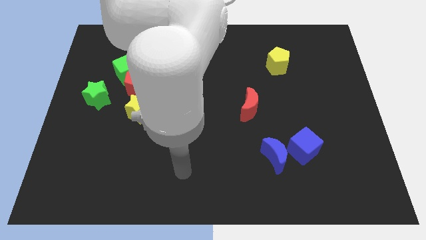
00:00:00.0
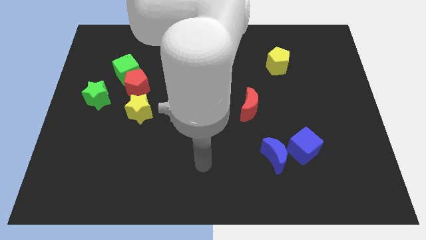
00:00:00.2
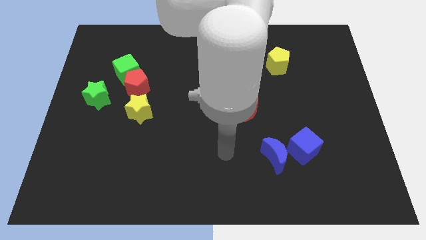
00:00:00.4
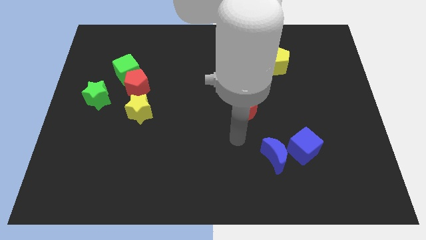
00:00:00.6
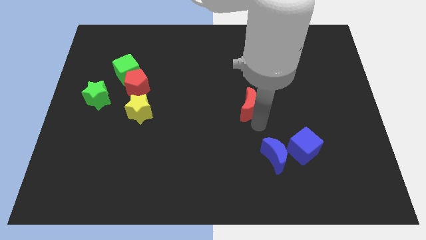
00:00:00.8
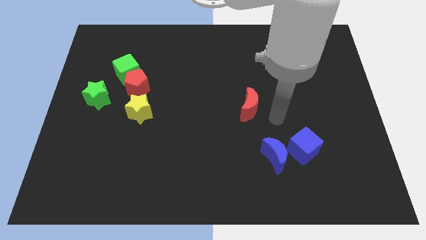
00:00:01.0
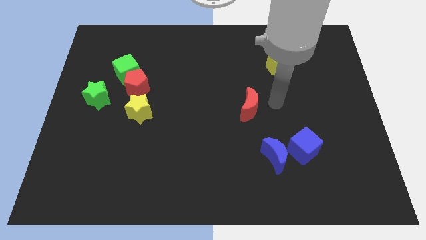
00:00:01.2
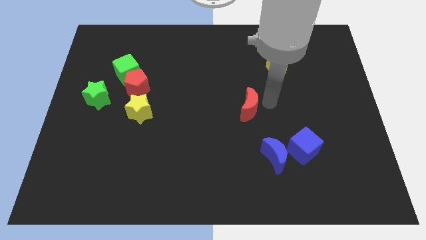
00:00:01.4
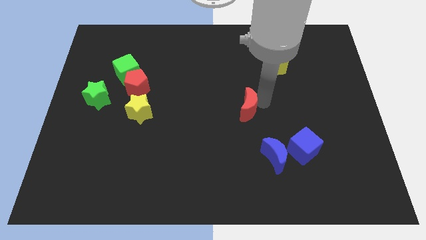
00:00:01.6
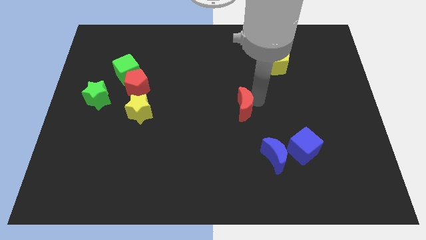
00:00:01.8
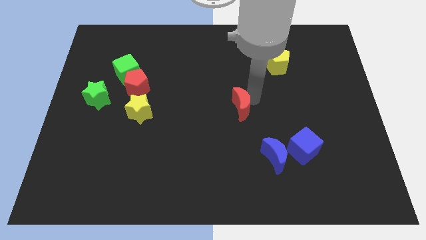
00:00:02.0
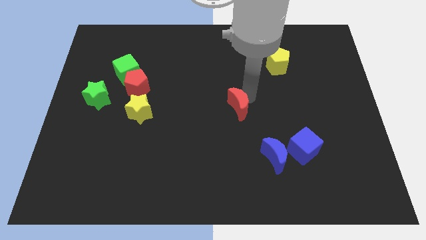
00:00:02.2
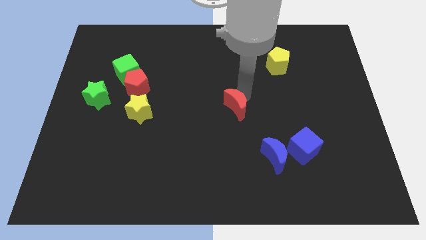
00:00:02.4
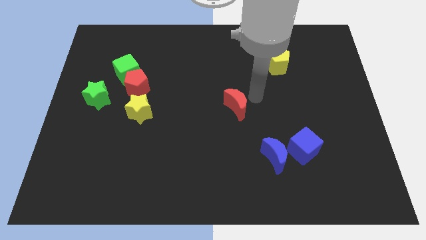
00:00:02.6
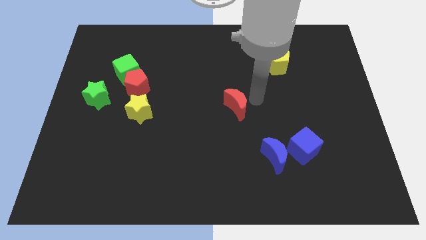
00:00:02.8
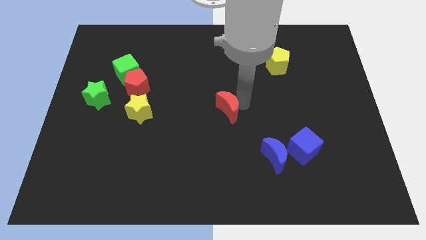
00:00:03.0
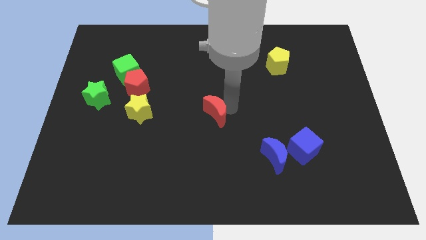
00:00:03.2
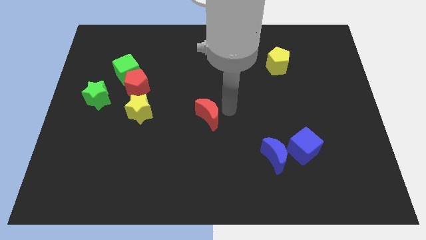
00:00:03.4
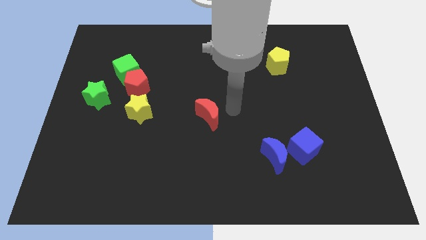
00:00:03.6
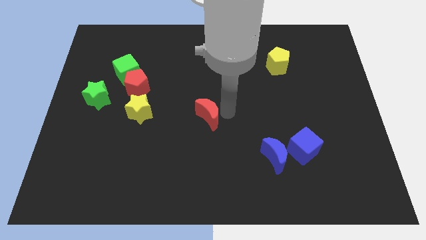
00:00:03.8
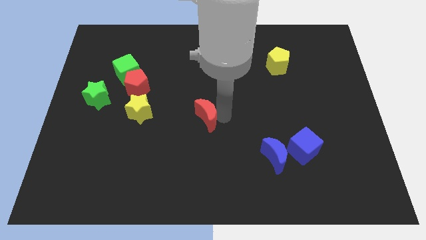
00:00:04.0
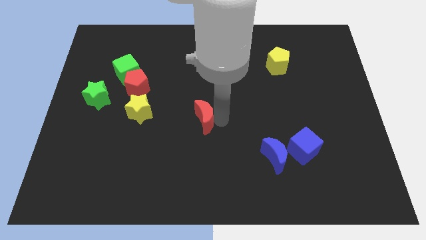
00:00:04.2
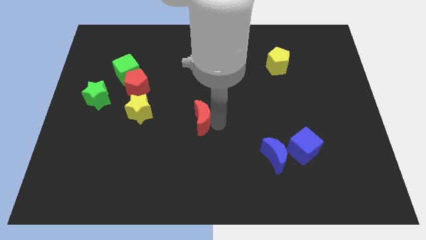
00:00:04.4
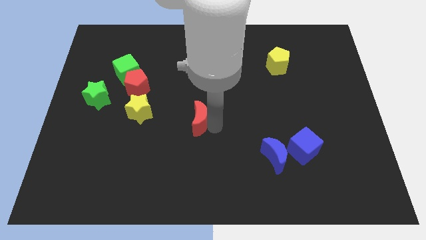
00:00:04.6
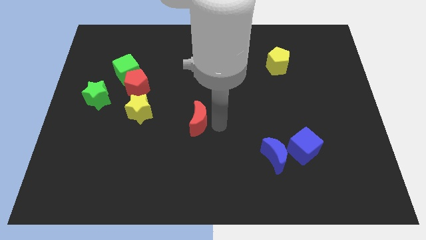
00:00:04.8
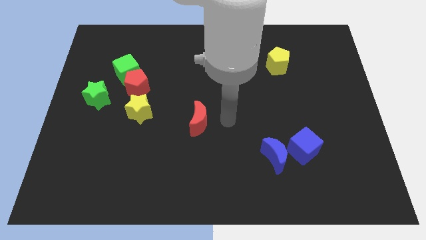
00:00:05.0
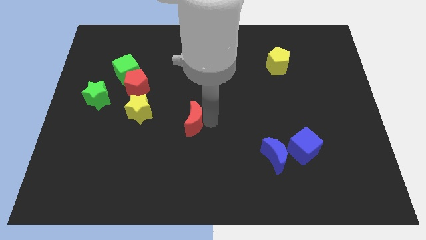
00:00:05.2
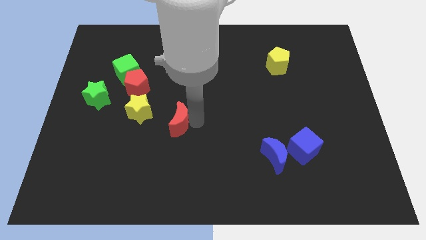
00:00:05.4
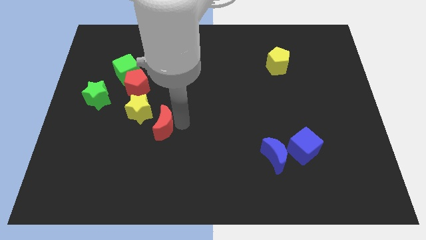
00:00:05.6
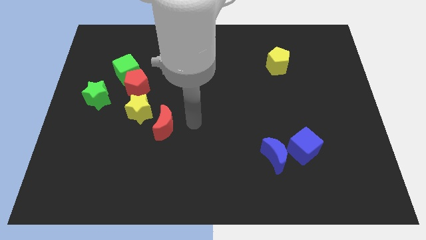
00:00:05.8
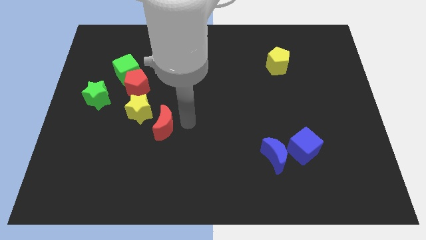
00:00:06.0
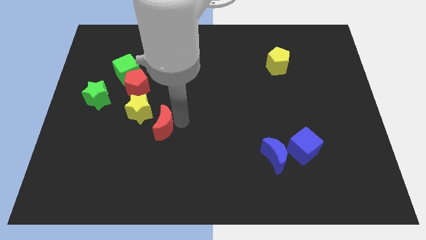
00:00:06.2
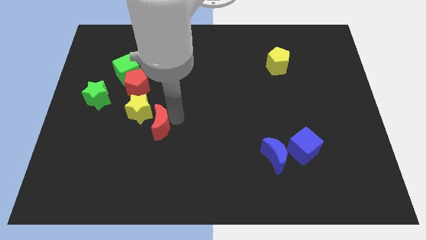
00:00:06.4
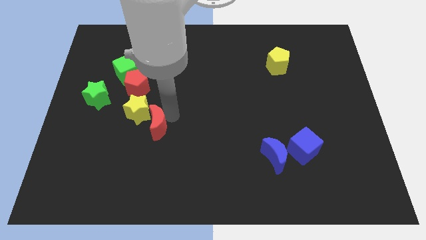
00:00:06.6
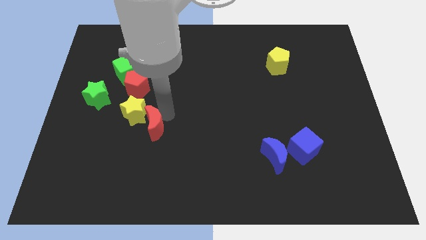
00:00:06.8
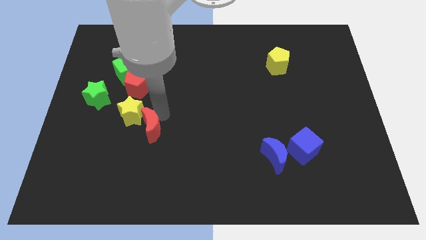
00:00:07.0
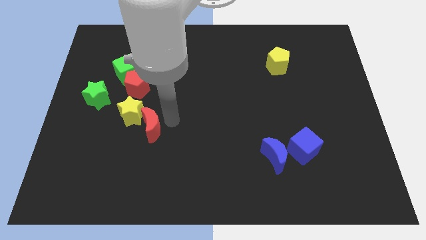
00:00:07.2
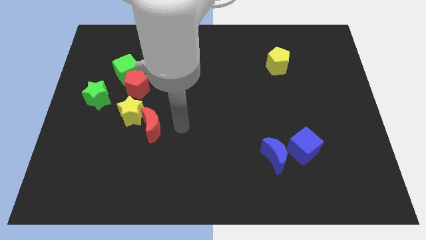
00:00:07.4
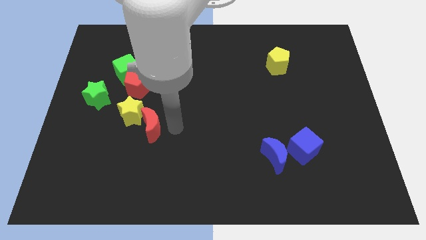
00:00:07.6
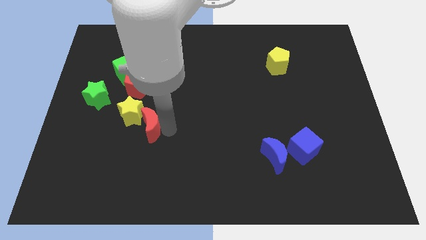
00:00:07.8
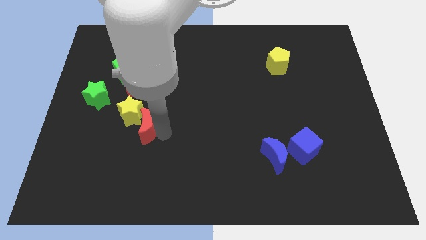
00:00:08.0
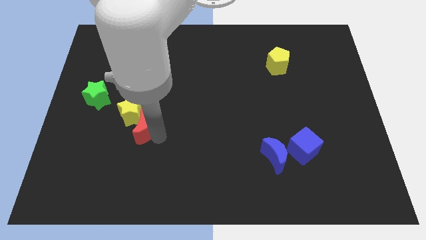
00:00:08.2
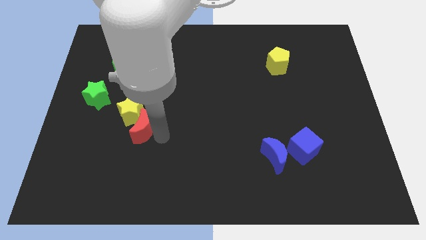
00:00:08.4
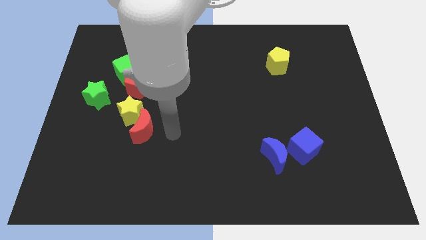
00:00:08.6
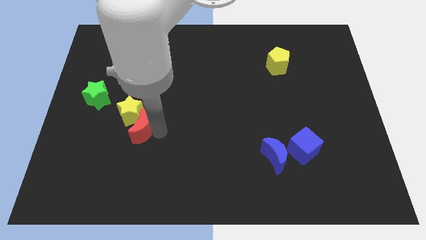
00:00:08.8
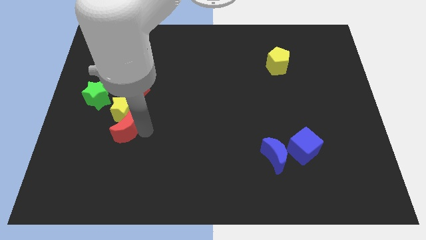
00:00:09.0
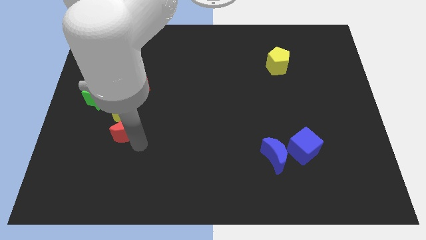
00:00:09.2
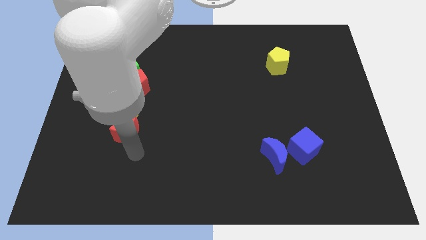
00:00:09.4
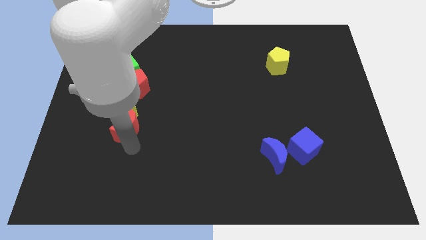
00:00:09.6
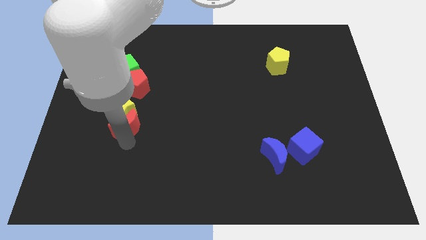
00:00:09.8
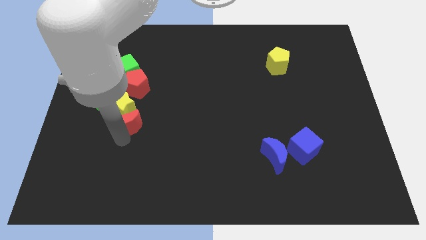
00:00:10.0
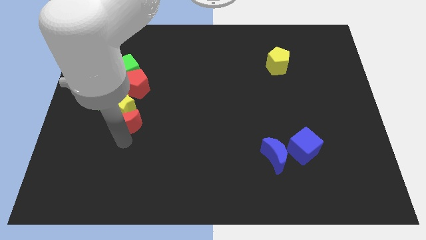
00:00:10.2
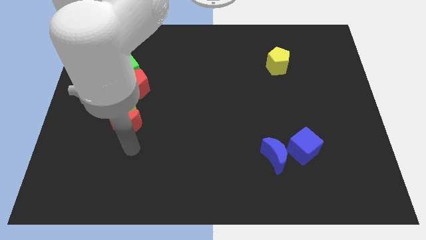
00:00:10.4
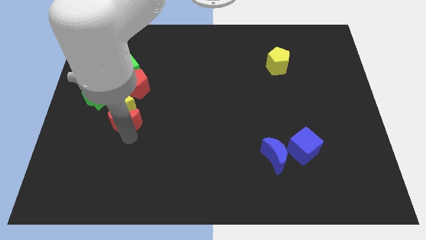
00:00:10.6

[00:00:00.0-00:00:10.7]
move the red moon to the bottom side of the green cube

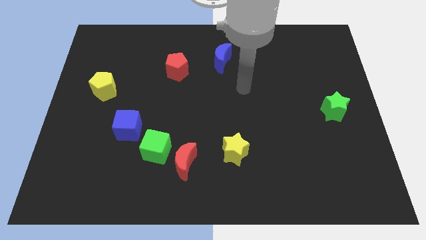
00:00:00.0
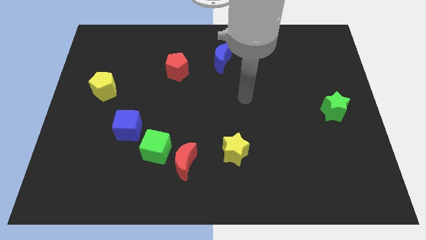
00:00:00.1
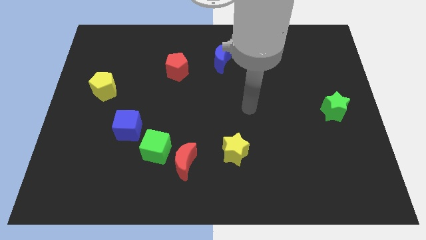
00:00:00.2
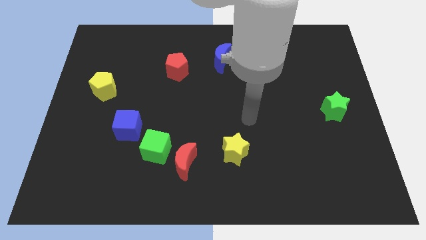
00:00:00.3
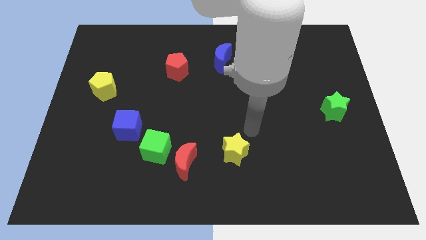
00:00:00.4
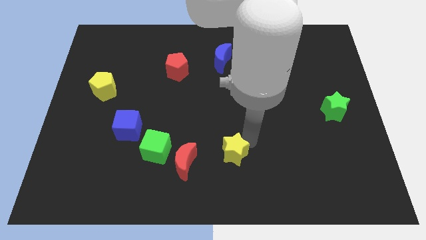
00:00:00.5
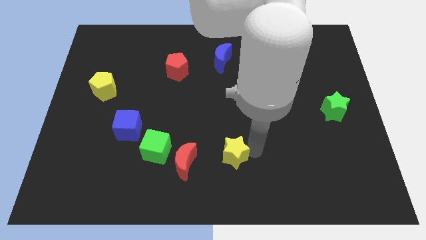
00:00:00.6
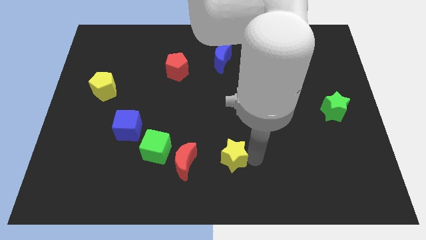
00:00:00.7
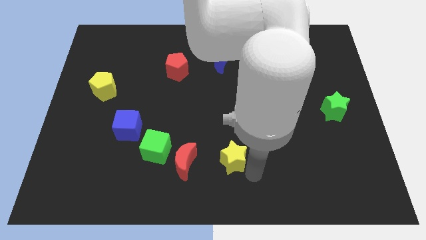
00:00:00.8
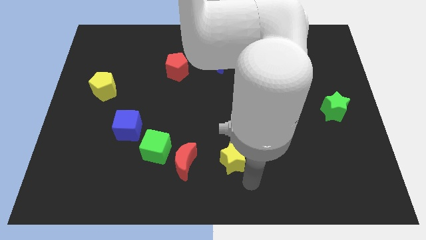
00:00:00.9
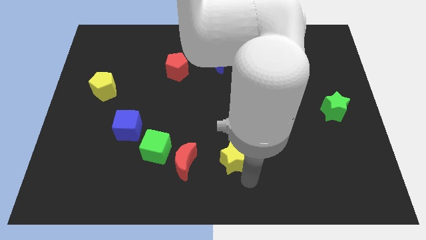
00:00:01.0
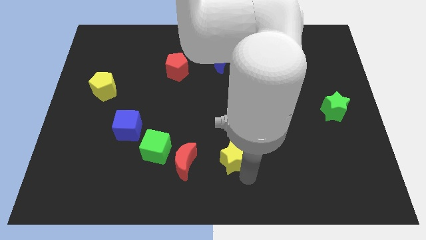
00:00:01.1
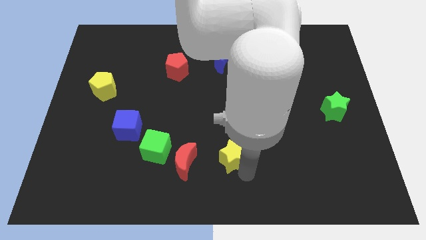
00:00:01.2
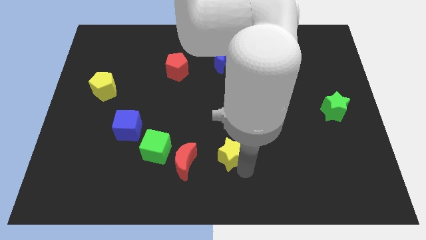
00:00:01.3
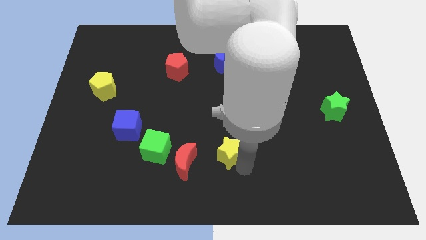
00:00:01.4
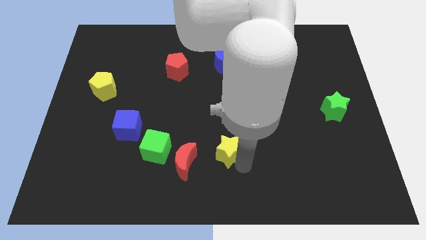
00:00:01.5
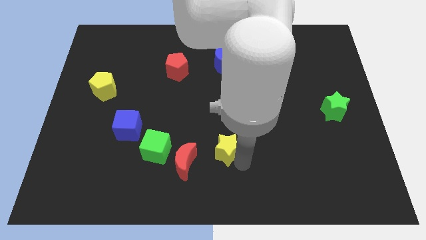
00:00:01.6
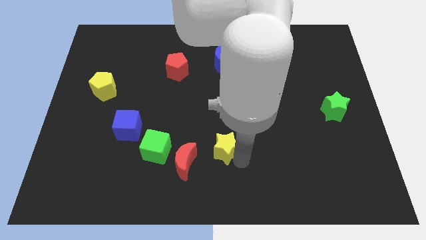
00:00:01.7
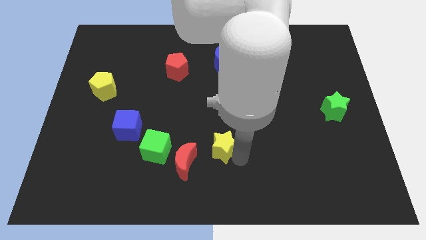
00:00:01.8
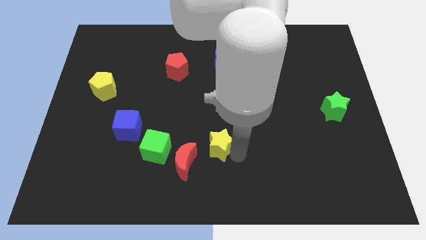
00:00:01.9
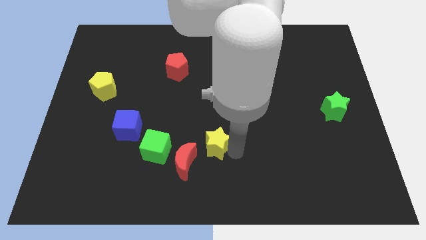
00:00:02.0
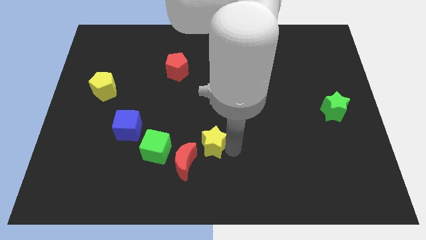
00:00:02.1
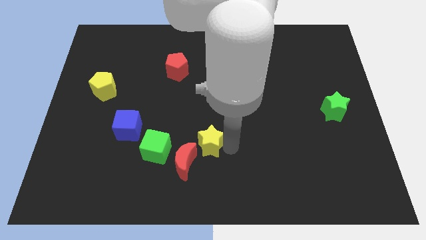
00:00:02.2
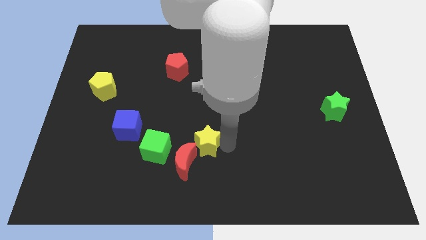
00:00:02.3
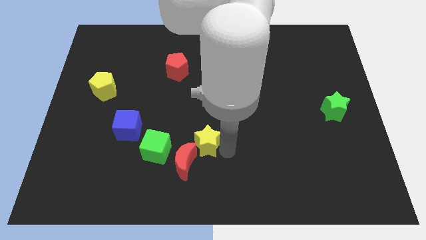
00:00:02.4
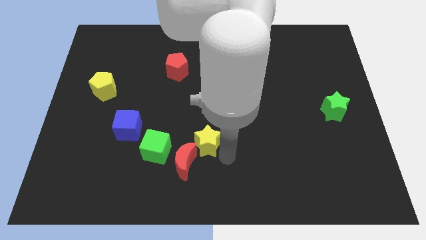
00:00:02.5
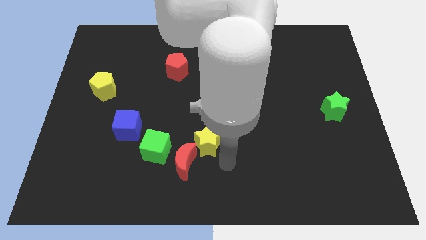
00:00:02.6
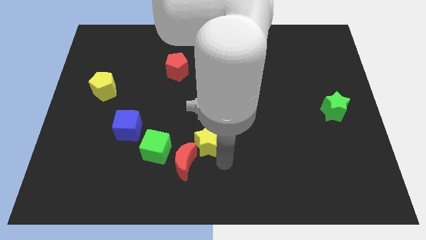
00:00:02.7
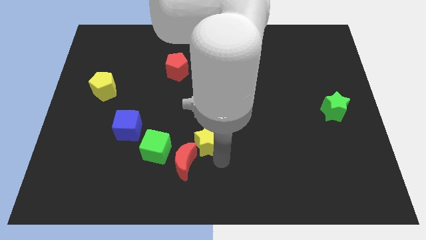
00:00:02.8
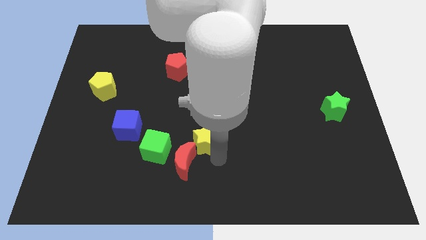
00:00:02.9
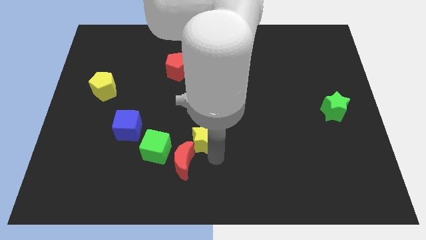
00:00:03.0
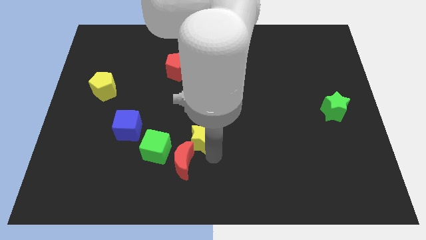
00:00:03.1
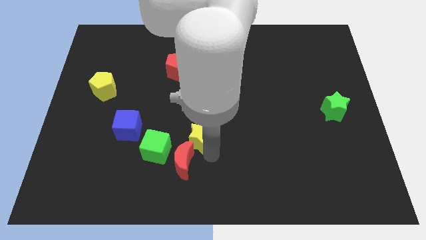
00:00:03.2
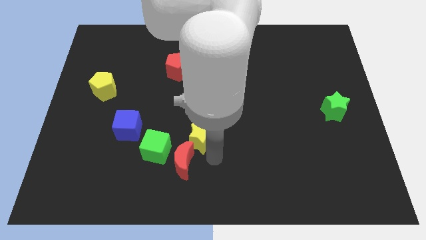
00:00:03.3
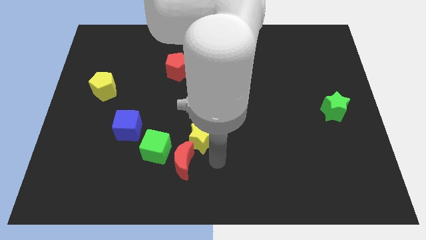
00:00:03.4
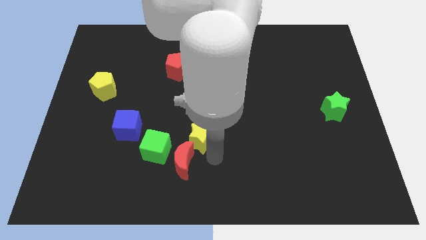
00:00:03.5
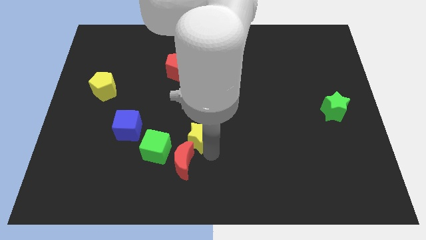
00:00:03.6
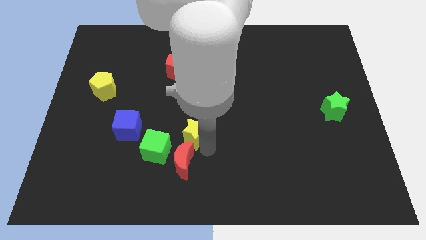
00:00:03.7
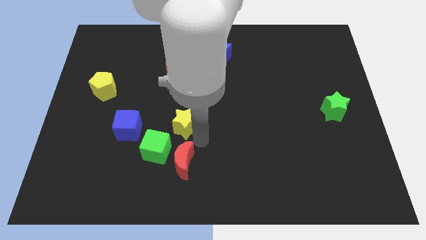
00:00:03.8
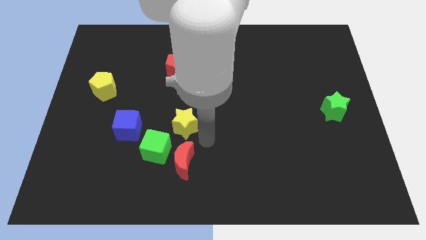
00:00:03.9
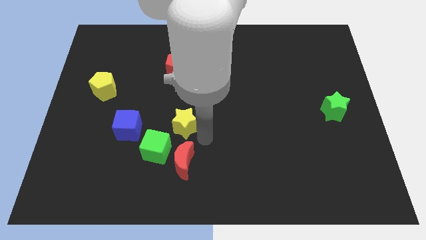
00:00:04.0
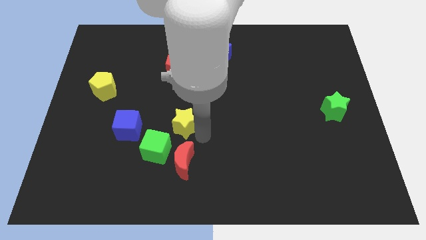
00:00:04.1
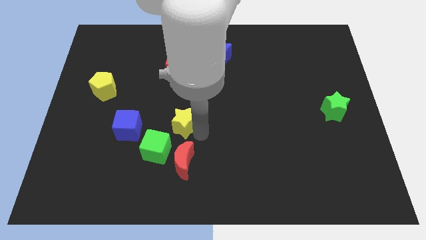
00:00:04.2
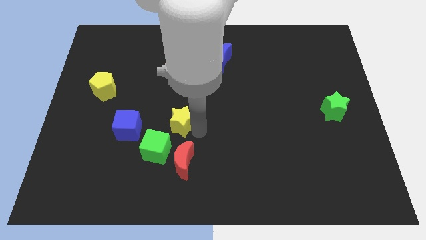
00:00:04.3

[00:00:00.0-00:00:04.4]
move the yellow star above the green cube
